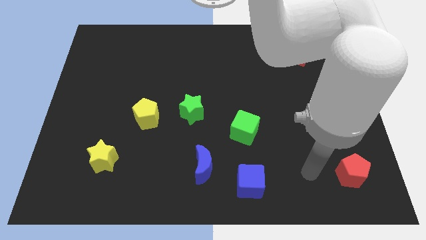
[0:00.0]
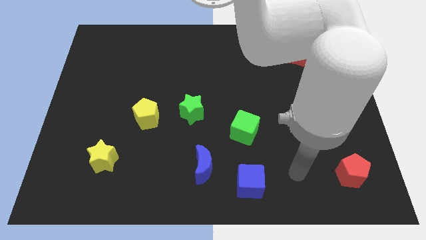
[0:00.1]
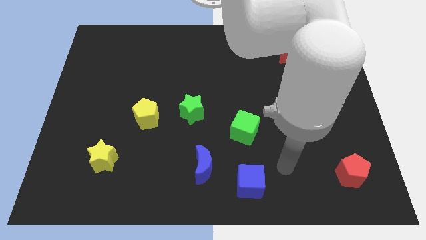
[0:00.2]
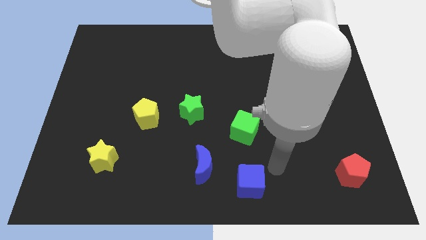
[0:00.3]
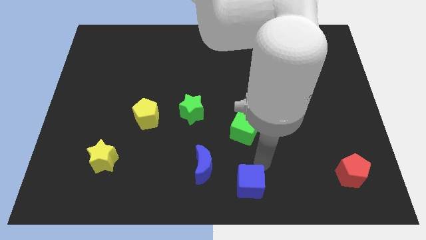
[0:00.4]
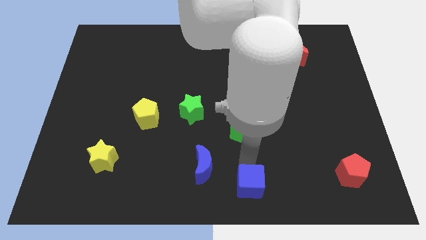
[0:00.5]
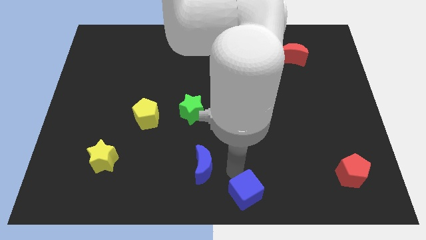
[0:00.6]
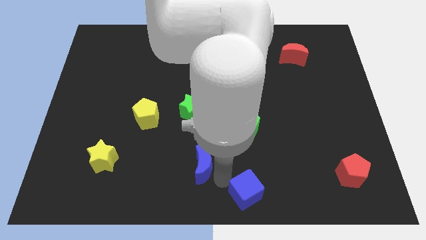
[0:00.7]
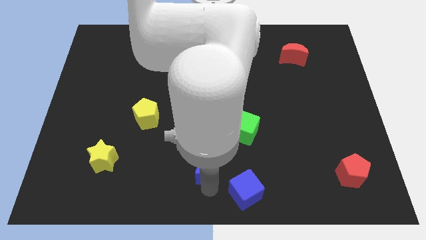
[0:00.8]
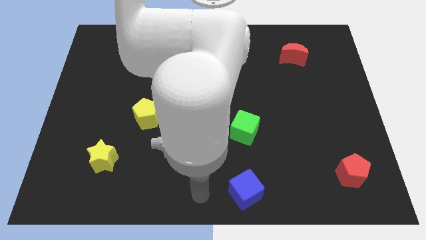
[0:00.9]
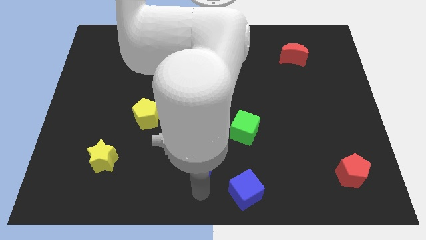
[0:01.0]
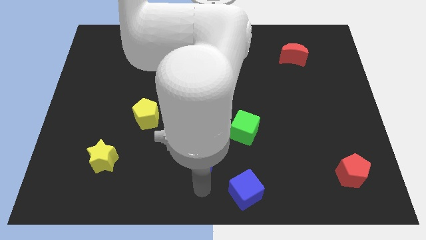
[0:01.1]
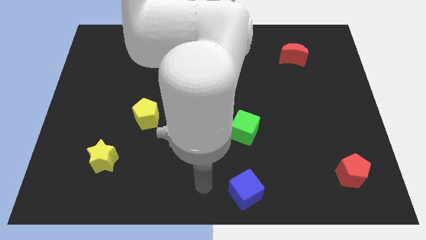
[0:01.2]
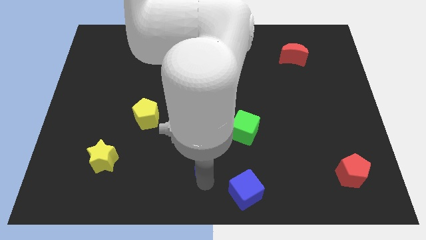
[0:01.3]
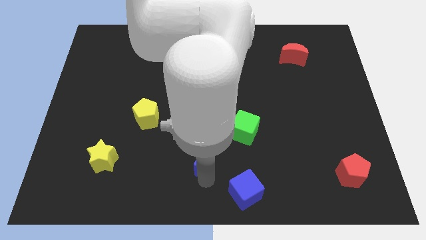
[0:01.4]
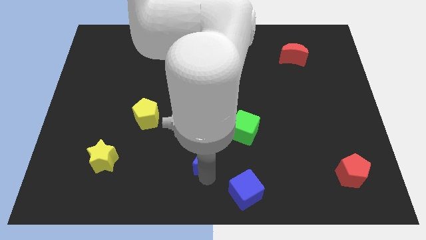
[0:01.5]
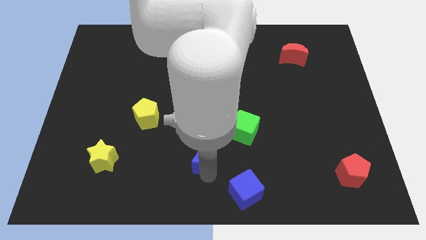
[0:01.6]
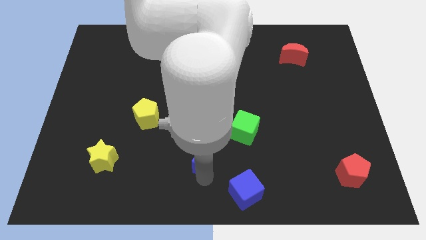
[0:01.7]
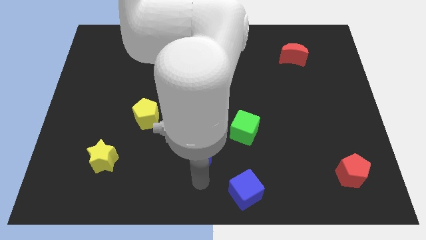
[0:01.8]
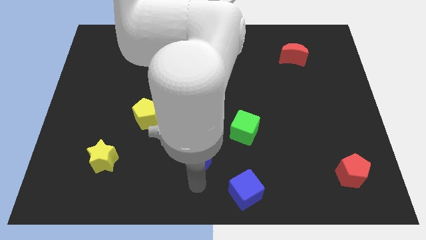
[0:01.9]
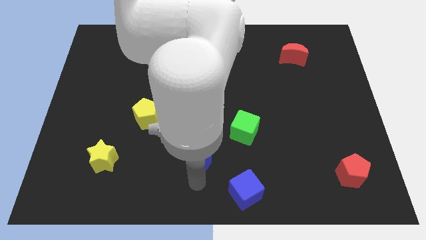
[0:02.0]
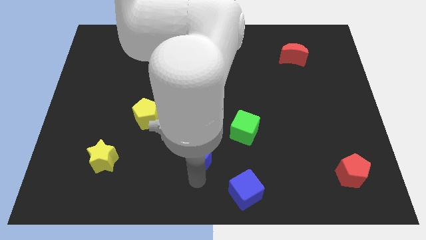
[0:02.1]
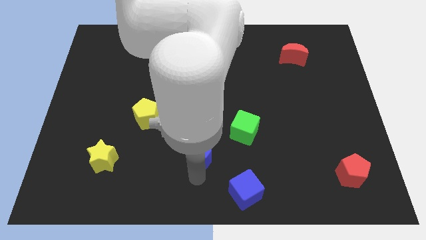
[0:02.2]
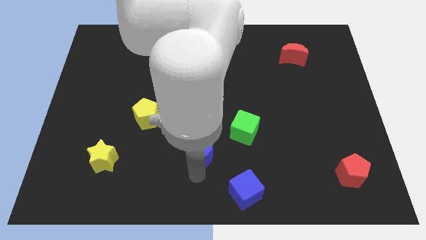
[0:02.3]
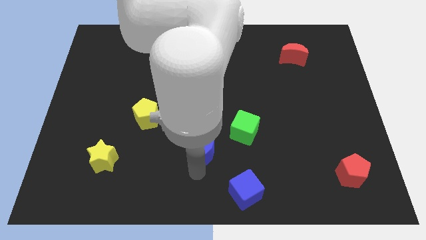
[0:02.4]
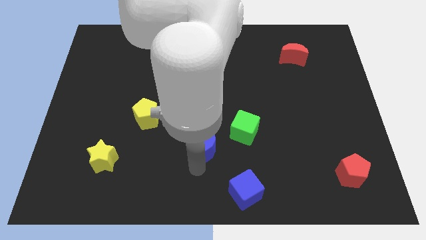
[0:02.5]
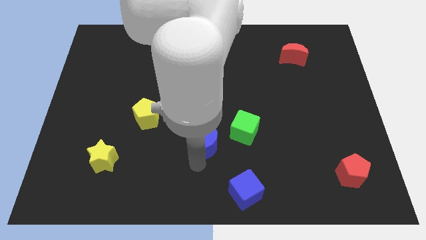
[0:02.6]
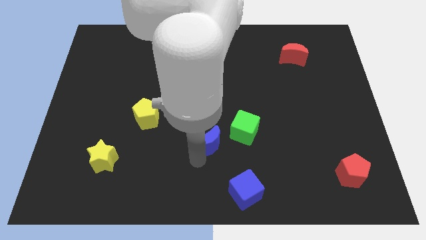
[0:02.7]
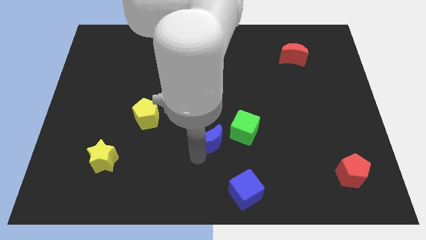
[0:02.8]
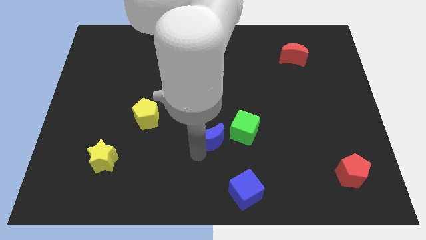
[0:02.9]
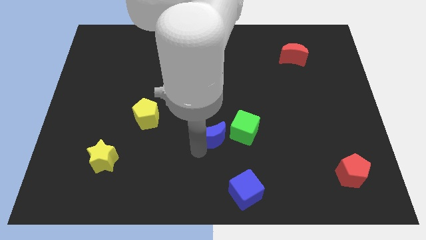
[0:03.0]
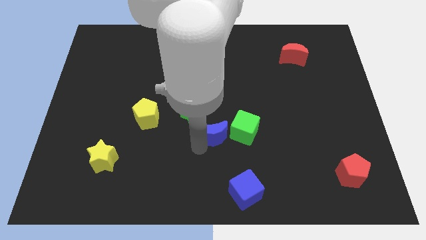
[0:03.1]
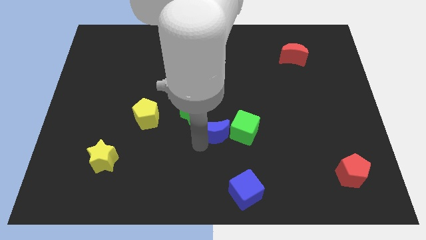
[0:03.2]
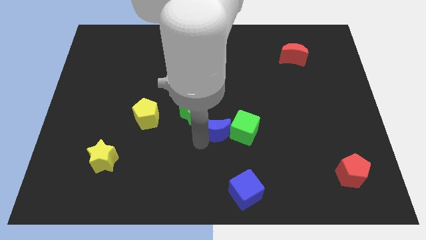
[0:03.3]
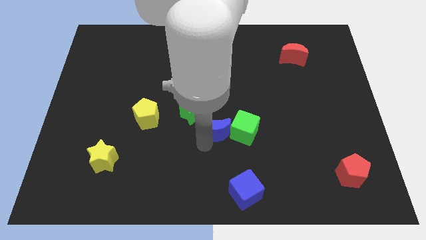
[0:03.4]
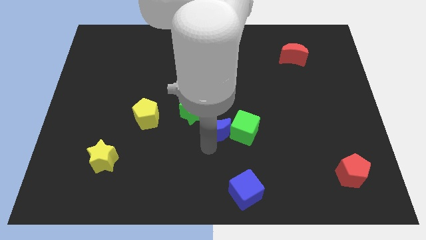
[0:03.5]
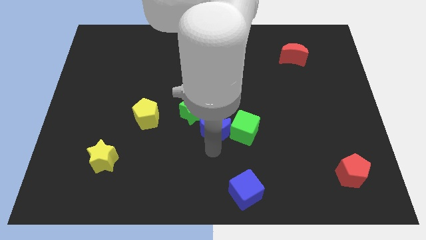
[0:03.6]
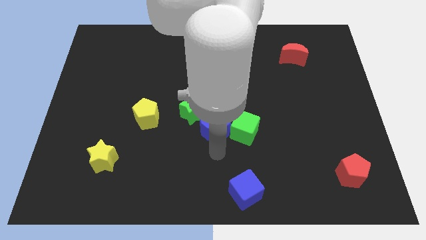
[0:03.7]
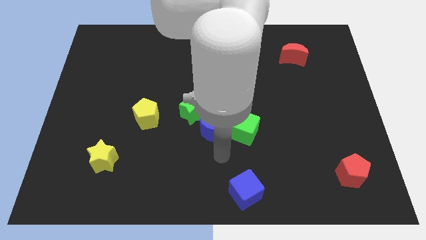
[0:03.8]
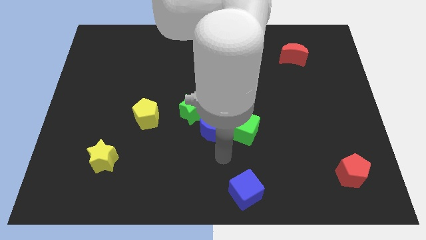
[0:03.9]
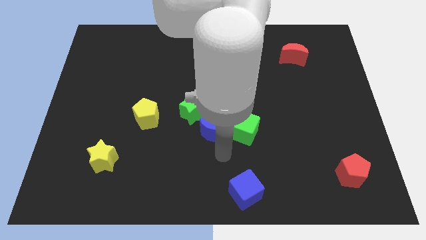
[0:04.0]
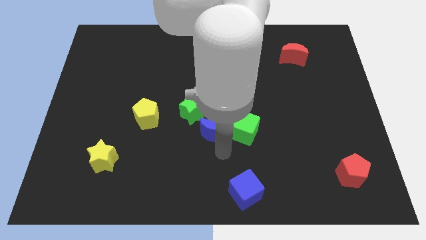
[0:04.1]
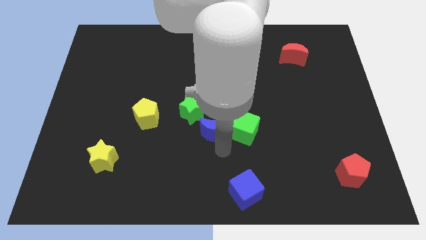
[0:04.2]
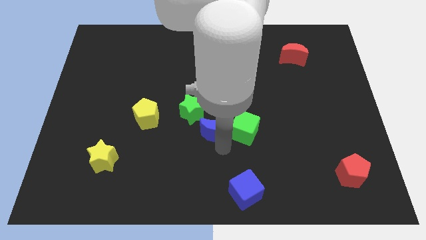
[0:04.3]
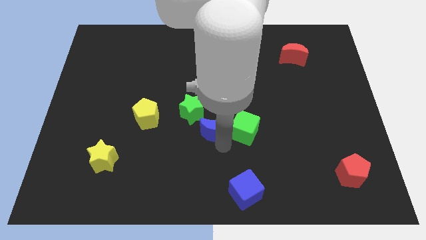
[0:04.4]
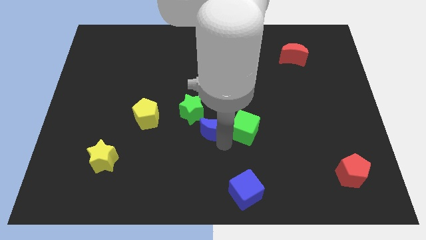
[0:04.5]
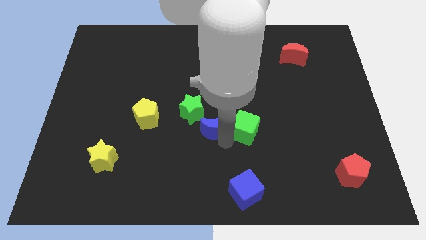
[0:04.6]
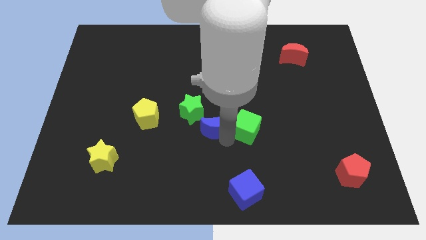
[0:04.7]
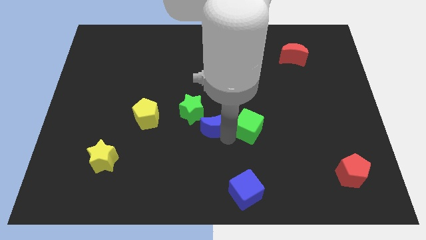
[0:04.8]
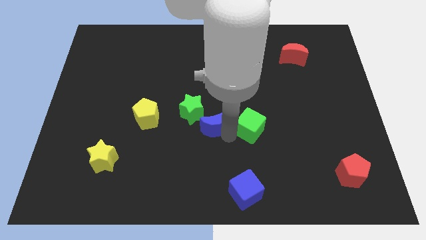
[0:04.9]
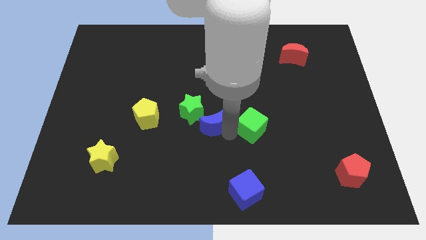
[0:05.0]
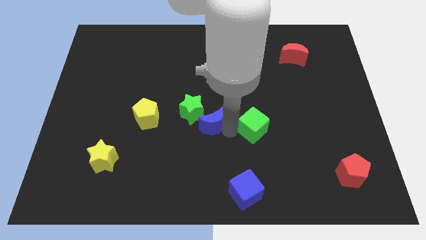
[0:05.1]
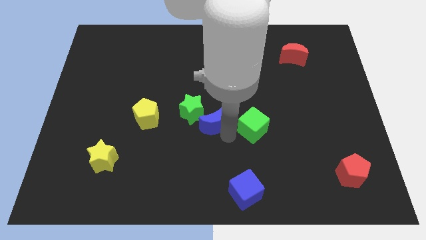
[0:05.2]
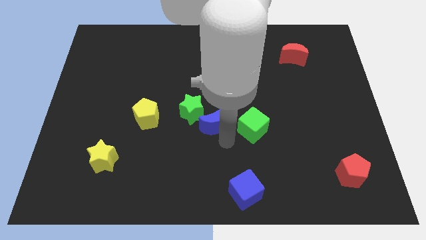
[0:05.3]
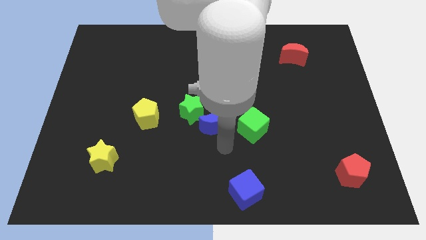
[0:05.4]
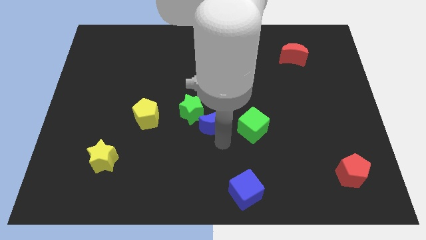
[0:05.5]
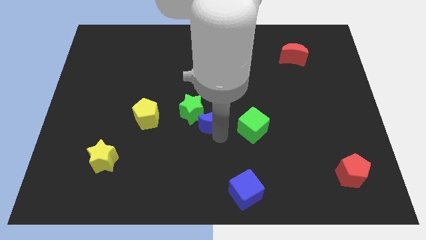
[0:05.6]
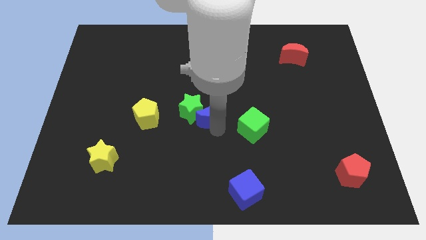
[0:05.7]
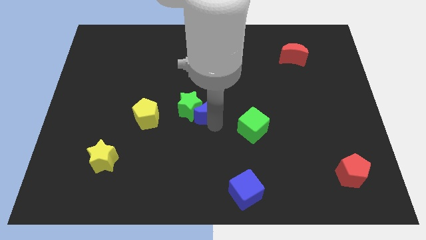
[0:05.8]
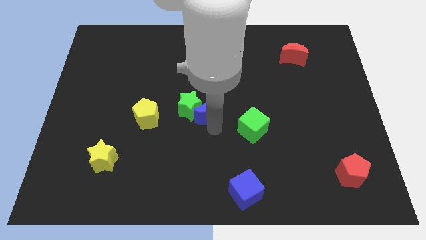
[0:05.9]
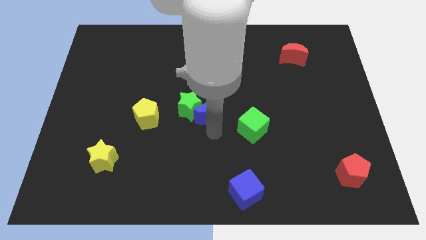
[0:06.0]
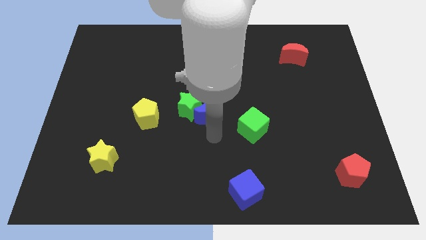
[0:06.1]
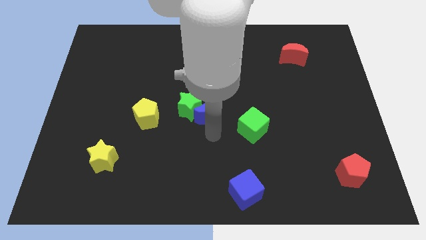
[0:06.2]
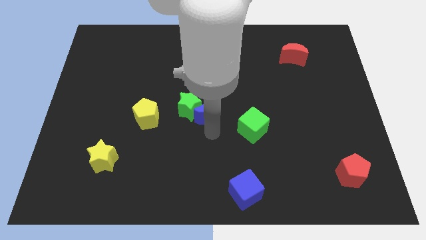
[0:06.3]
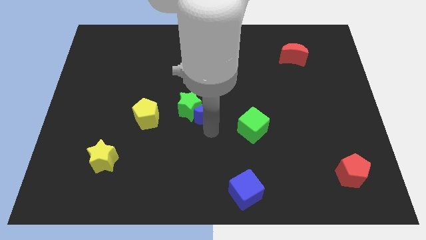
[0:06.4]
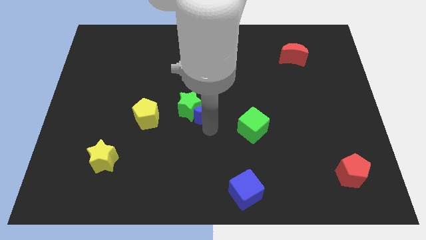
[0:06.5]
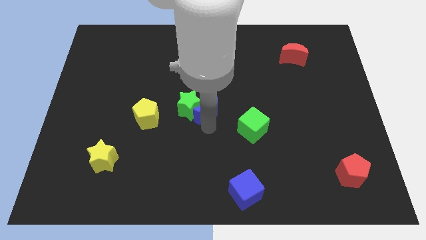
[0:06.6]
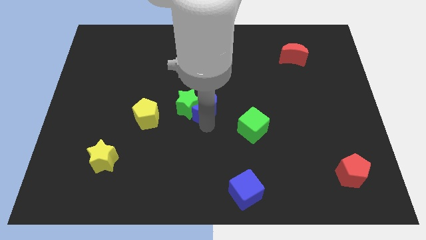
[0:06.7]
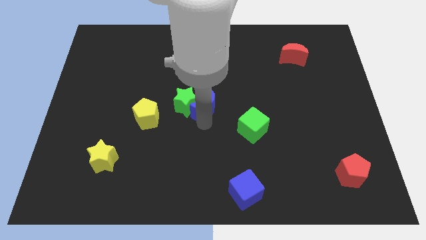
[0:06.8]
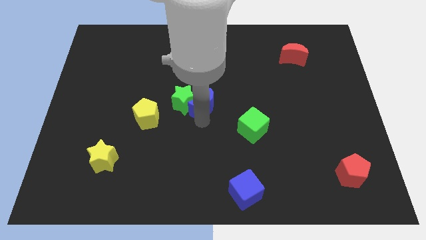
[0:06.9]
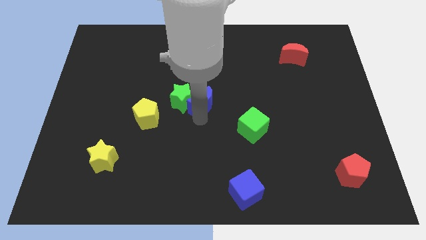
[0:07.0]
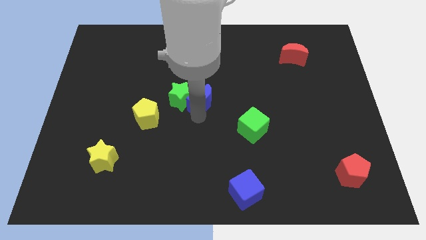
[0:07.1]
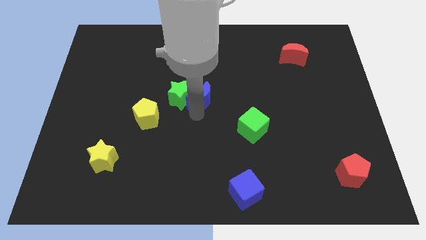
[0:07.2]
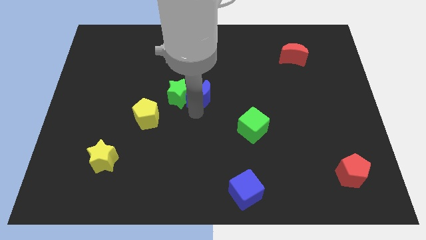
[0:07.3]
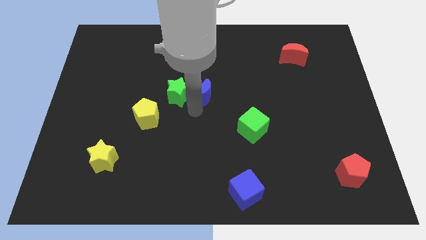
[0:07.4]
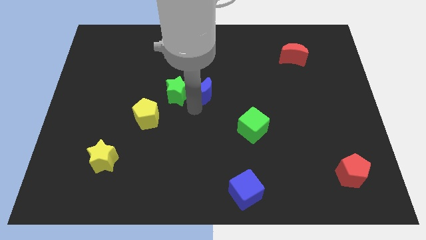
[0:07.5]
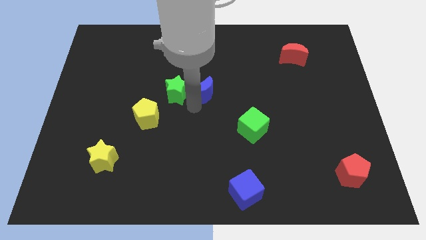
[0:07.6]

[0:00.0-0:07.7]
slide the blue moon up
